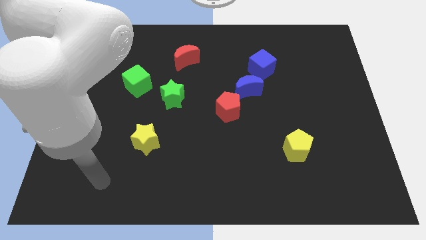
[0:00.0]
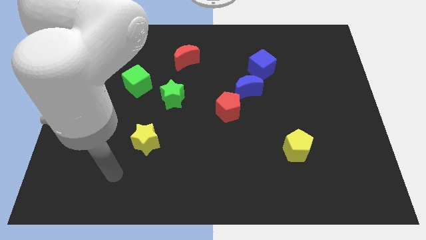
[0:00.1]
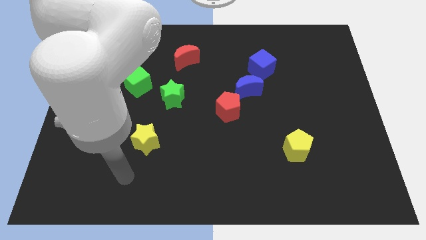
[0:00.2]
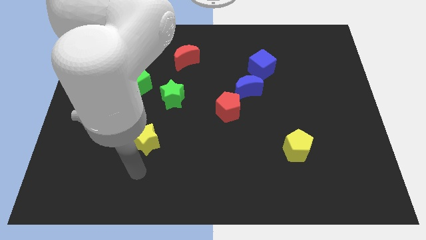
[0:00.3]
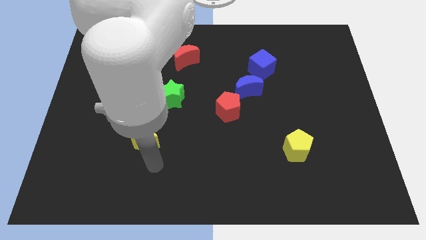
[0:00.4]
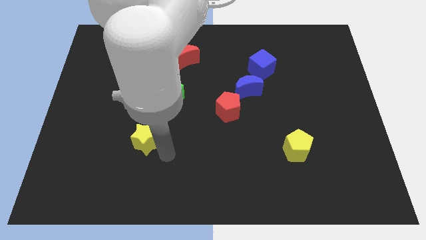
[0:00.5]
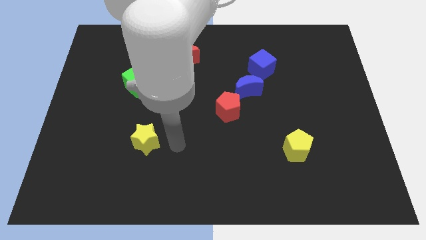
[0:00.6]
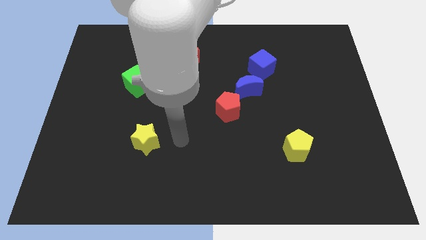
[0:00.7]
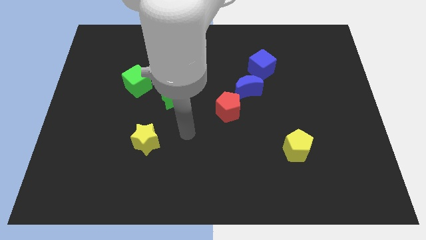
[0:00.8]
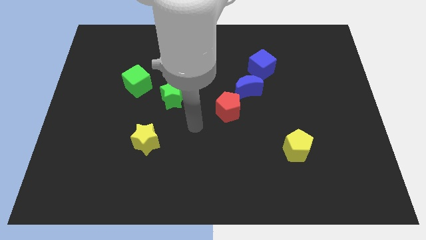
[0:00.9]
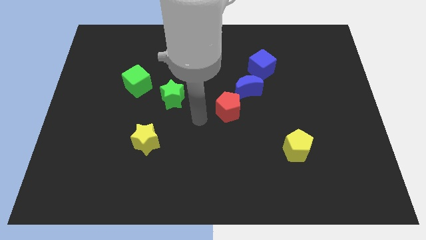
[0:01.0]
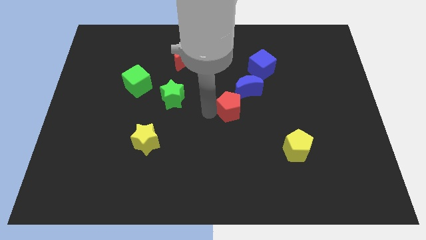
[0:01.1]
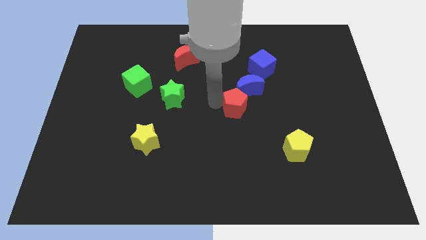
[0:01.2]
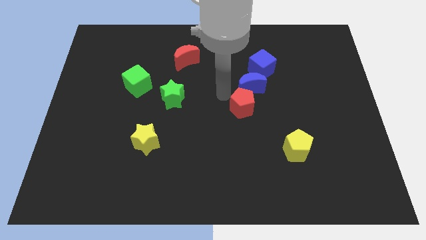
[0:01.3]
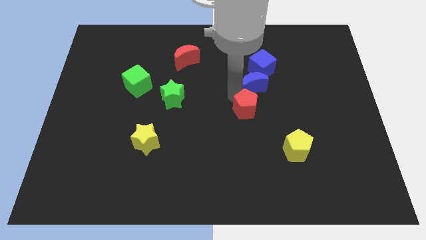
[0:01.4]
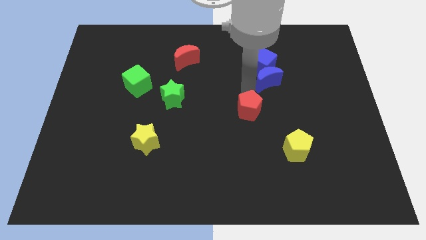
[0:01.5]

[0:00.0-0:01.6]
pull the red pentagon apart from the blue moon

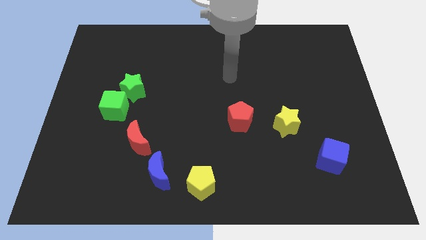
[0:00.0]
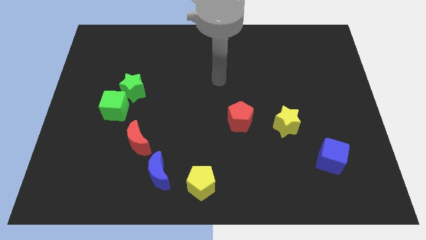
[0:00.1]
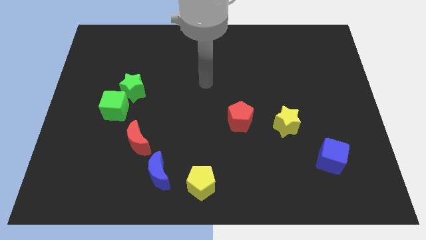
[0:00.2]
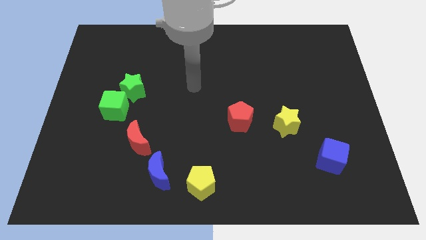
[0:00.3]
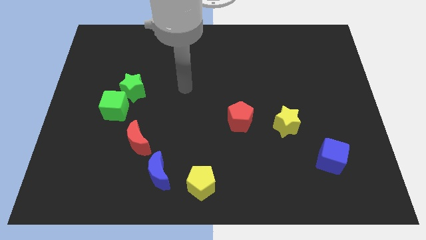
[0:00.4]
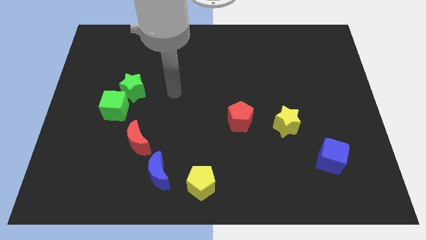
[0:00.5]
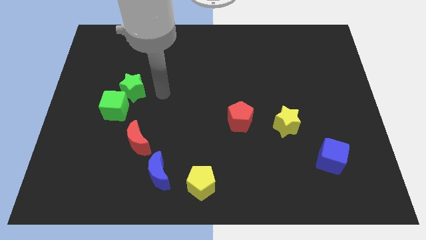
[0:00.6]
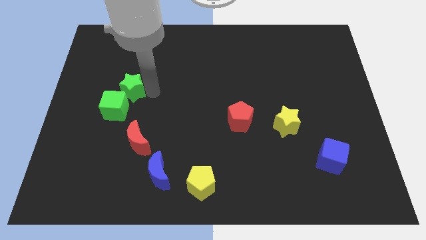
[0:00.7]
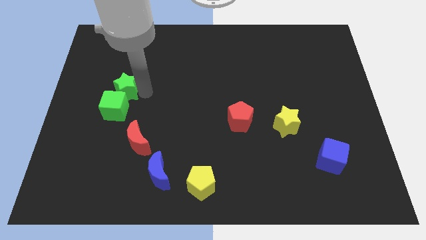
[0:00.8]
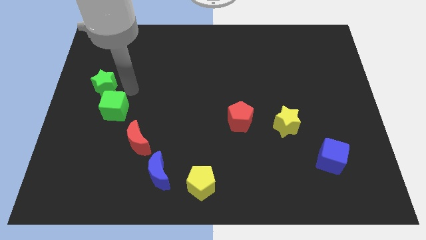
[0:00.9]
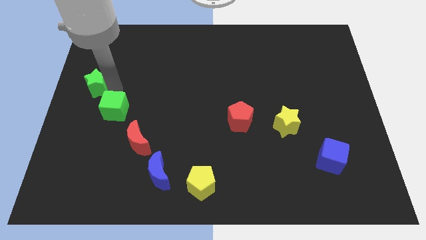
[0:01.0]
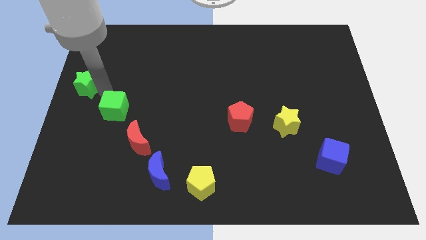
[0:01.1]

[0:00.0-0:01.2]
separate the green cube from the green star

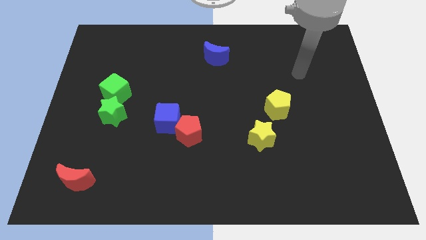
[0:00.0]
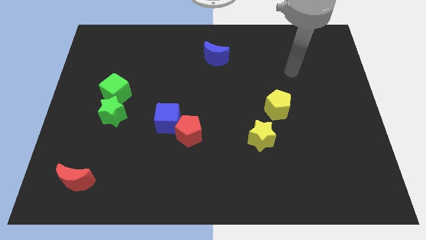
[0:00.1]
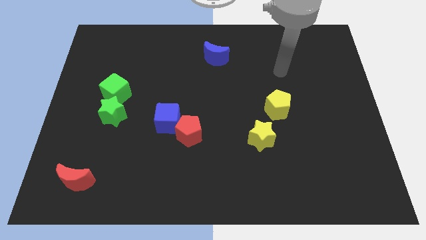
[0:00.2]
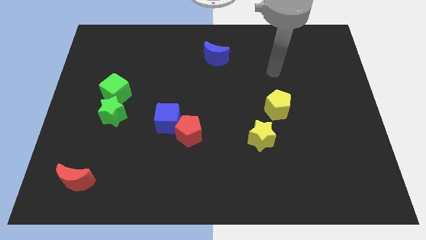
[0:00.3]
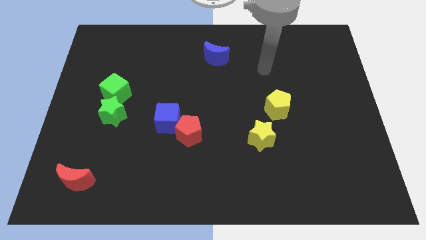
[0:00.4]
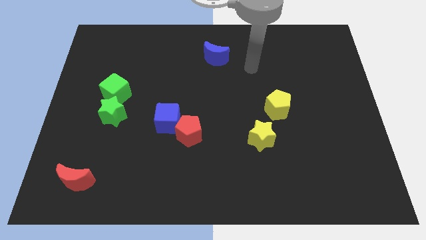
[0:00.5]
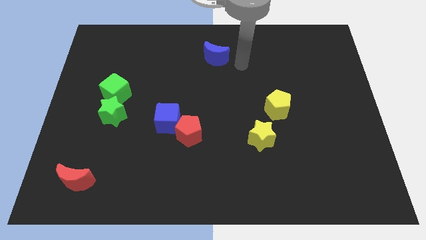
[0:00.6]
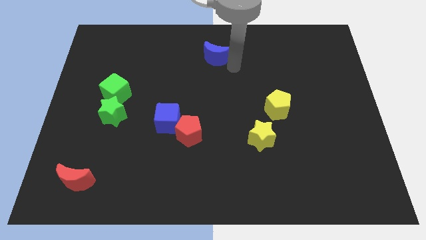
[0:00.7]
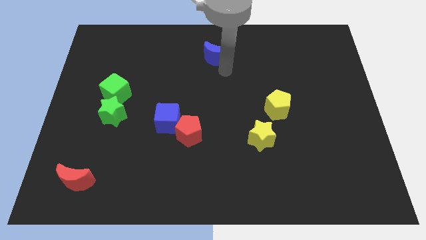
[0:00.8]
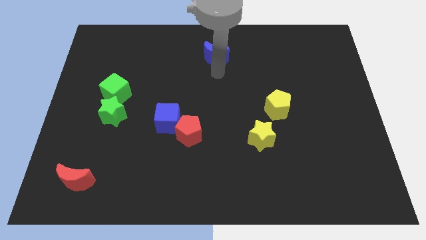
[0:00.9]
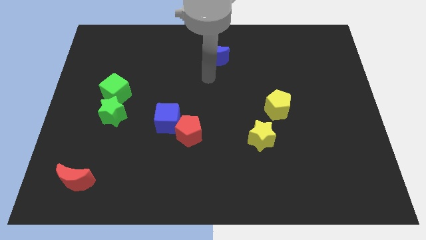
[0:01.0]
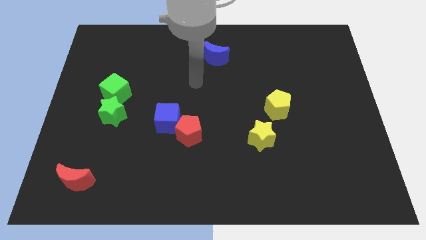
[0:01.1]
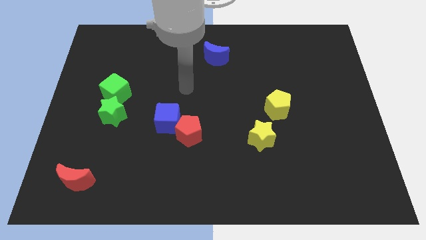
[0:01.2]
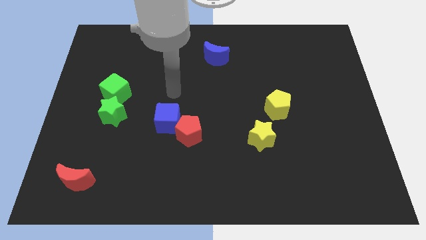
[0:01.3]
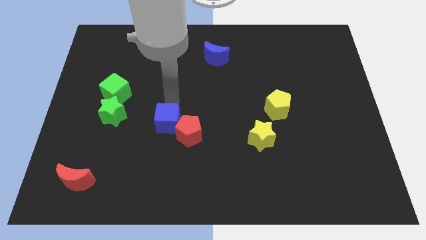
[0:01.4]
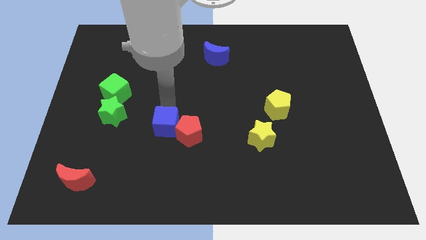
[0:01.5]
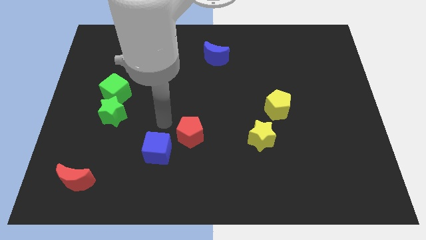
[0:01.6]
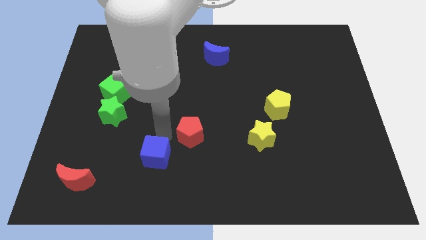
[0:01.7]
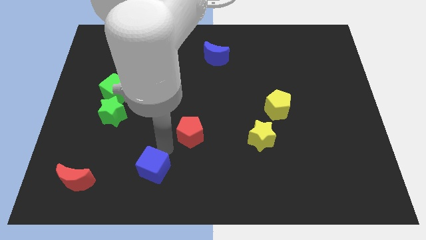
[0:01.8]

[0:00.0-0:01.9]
separate the red pentagon from the blue cube

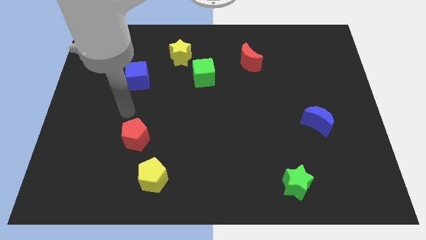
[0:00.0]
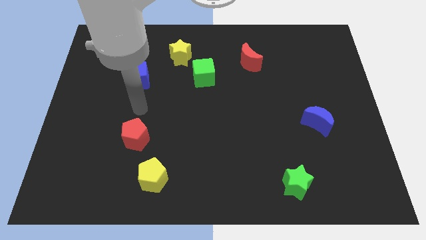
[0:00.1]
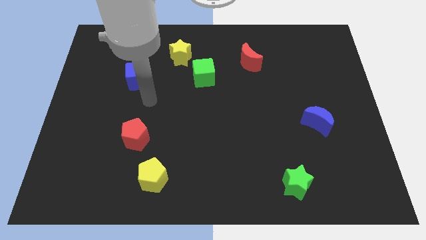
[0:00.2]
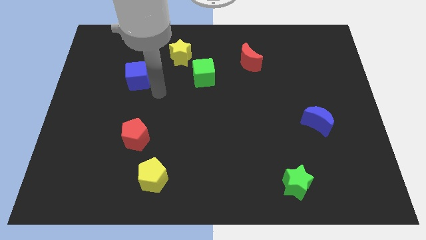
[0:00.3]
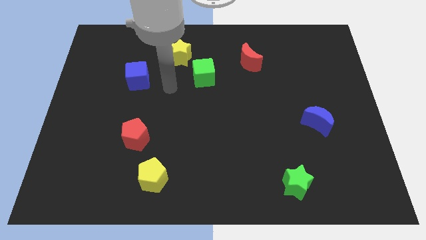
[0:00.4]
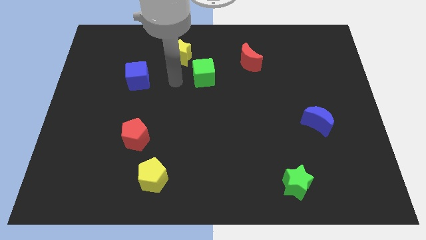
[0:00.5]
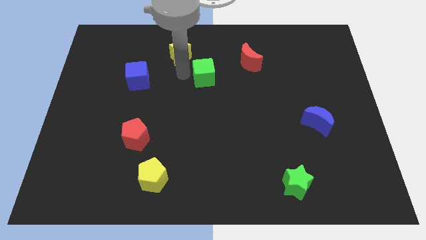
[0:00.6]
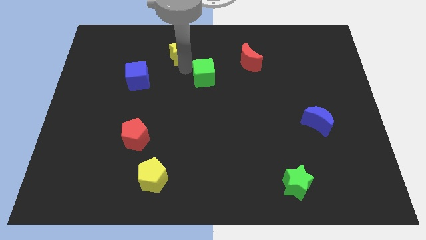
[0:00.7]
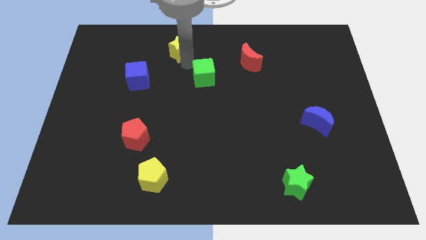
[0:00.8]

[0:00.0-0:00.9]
move the green cube away from the yellow star

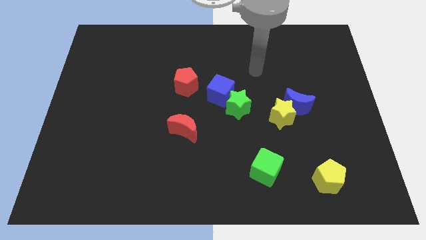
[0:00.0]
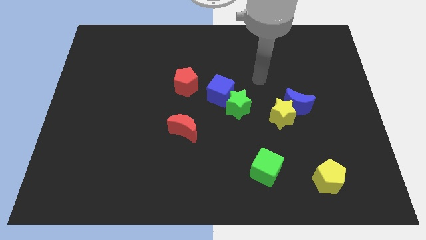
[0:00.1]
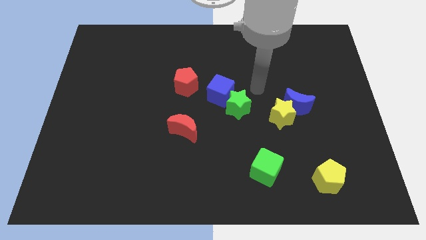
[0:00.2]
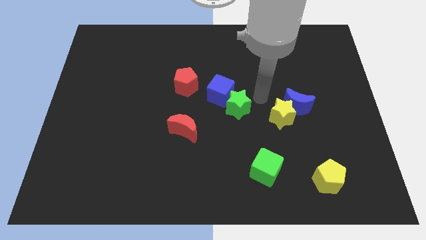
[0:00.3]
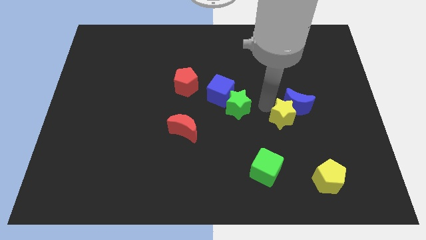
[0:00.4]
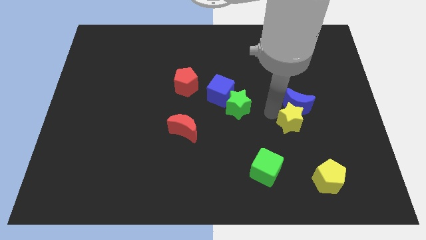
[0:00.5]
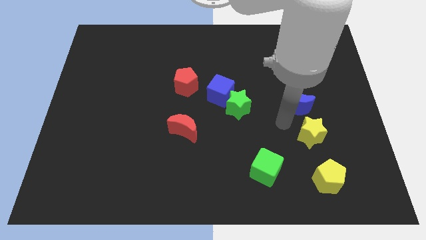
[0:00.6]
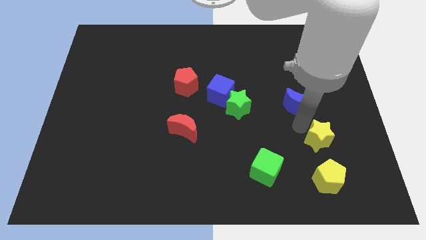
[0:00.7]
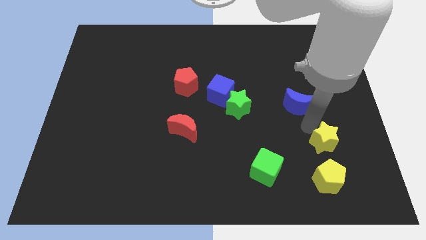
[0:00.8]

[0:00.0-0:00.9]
pull the blue moon apart from the yellow star

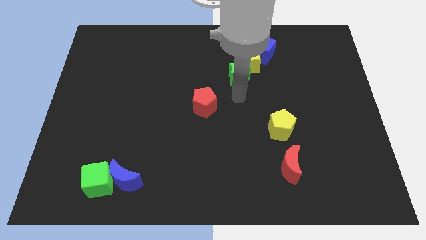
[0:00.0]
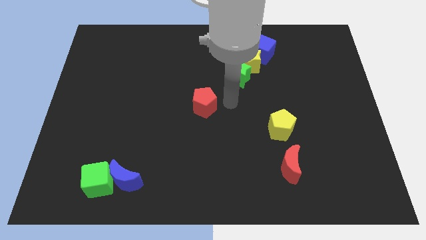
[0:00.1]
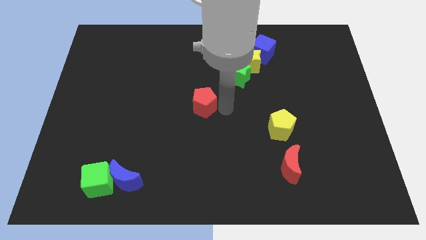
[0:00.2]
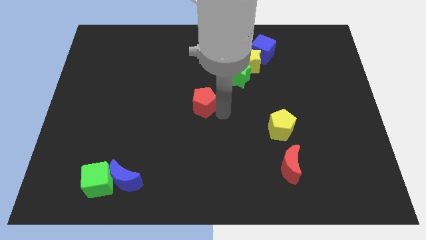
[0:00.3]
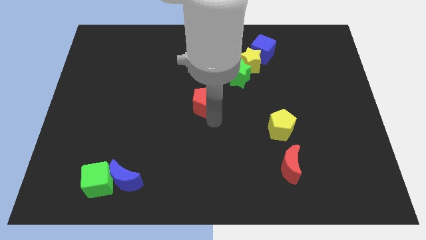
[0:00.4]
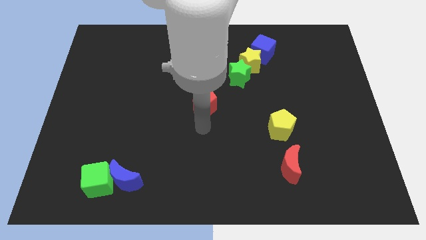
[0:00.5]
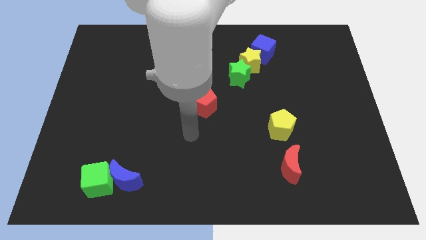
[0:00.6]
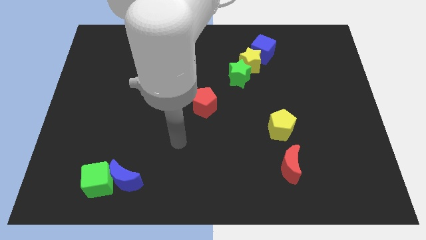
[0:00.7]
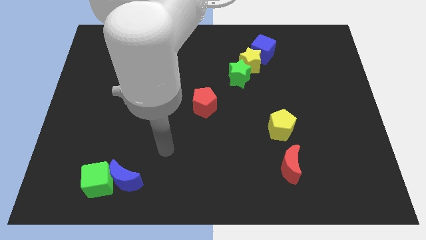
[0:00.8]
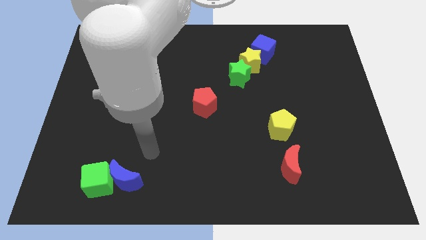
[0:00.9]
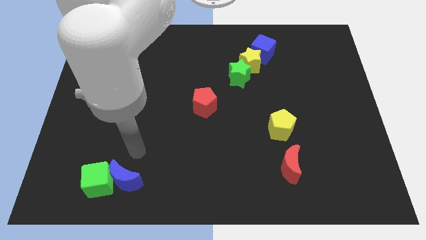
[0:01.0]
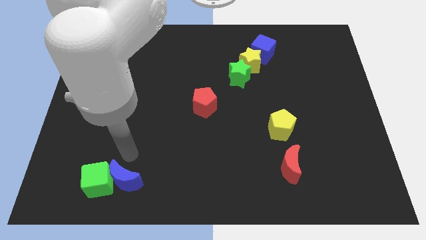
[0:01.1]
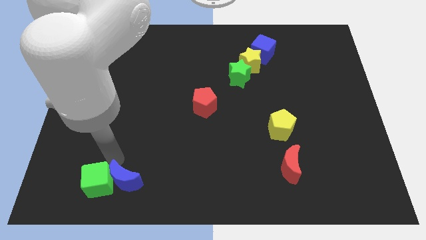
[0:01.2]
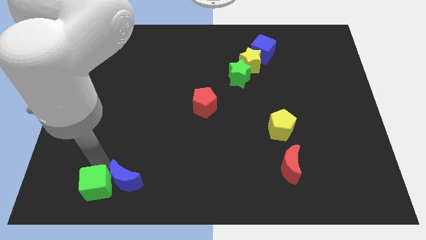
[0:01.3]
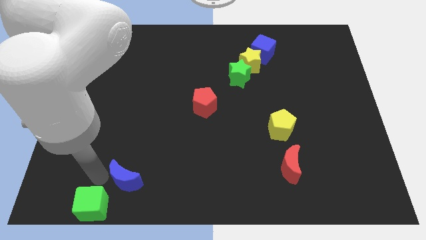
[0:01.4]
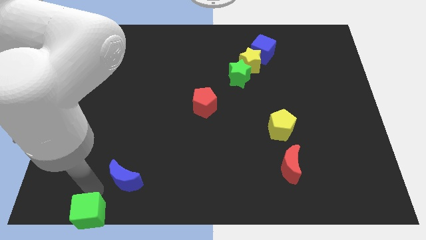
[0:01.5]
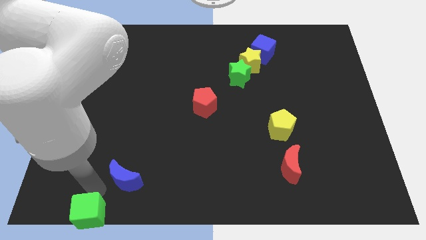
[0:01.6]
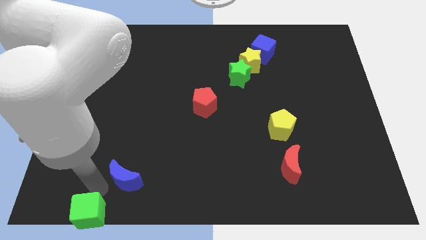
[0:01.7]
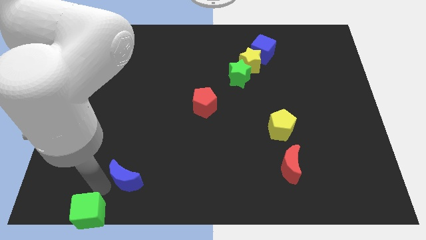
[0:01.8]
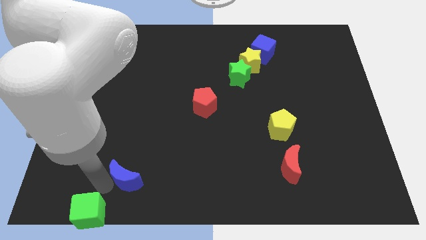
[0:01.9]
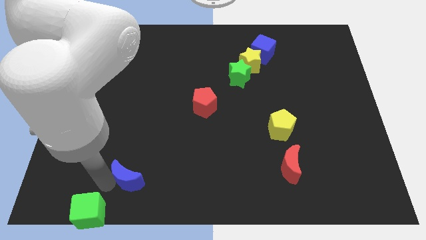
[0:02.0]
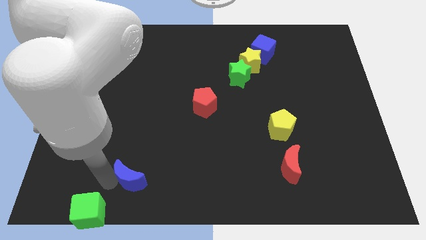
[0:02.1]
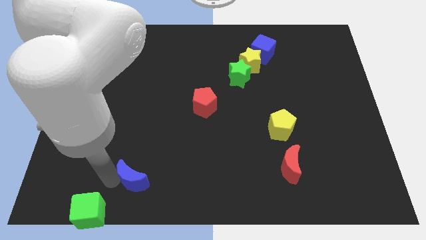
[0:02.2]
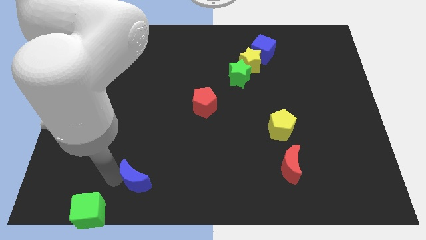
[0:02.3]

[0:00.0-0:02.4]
move the blue moon away from the green cube

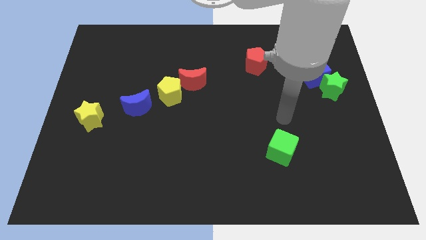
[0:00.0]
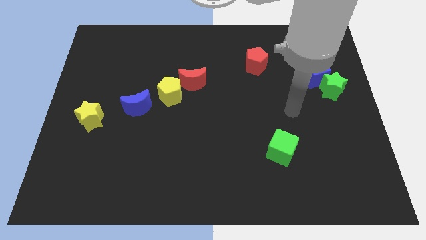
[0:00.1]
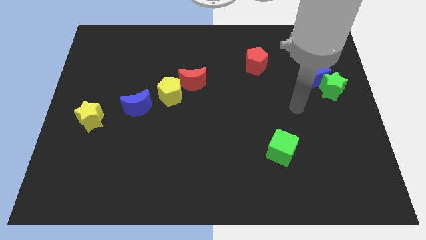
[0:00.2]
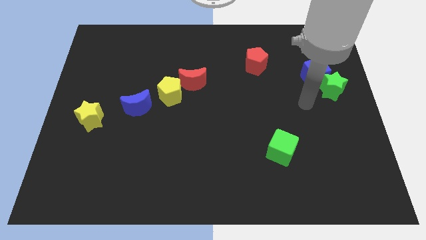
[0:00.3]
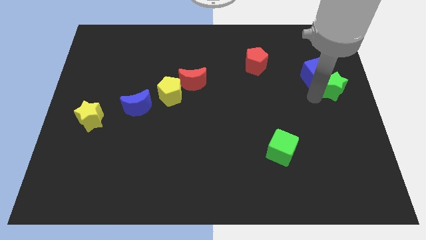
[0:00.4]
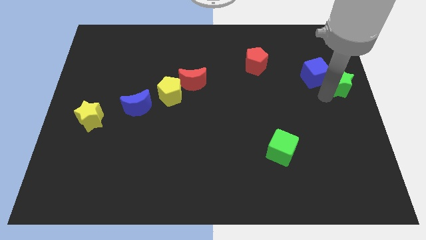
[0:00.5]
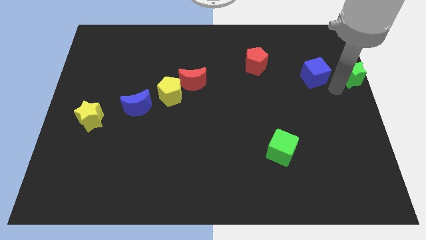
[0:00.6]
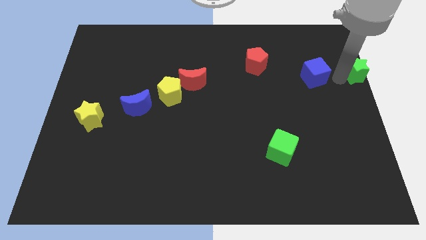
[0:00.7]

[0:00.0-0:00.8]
separate the blue cube from the green star
